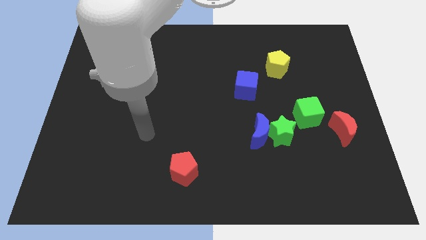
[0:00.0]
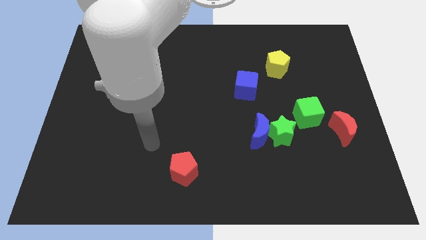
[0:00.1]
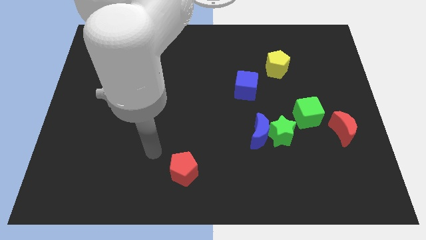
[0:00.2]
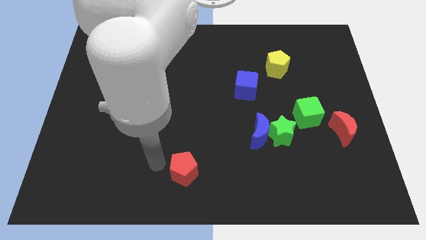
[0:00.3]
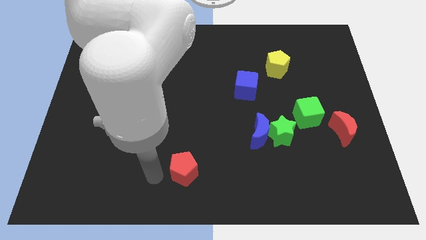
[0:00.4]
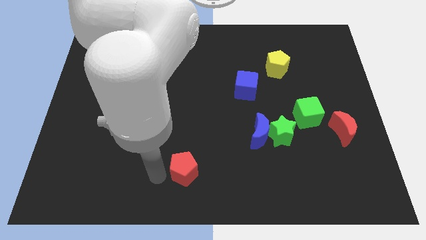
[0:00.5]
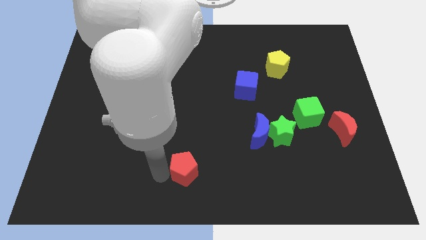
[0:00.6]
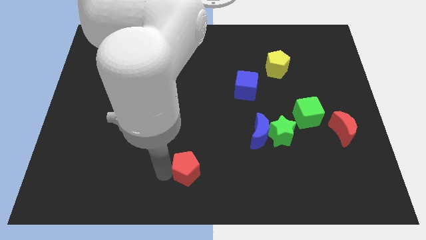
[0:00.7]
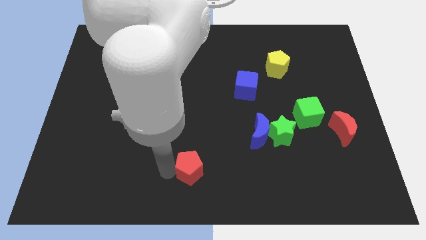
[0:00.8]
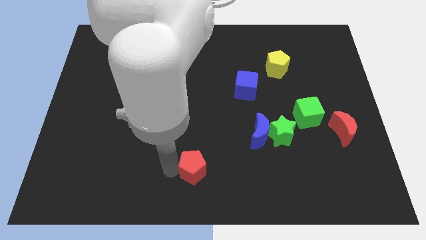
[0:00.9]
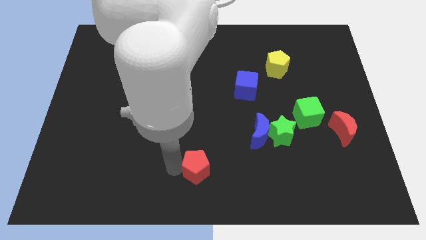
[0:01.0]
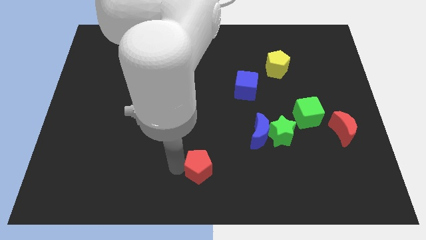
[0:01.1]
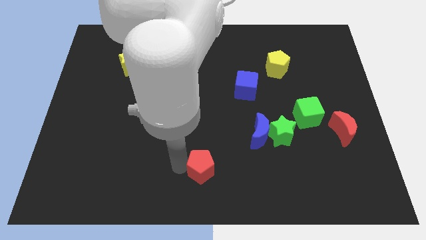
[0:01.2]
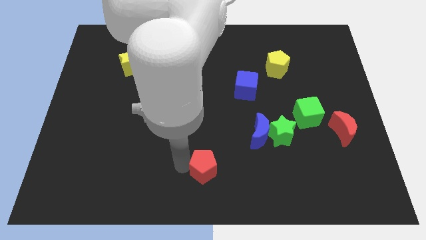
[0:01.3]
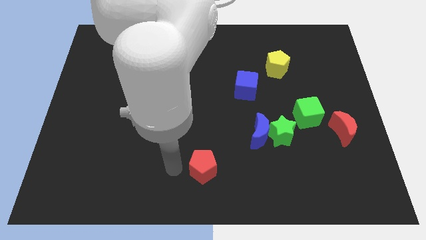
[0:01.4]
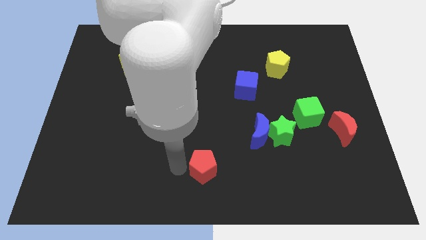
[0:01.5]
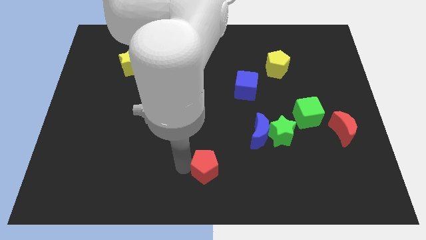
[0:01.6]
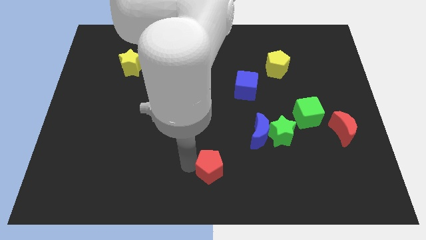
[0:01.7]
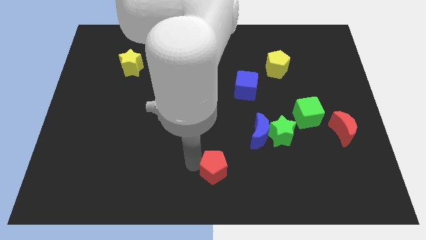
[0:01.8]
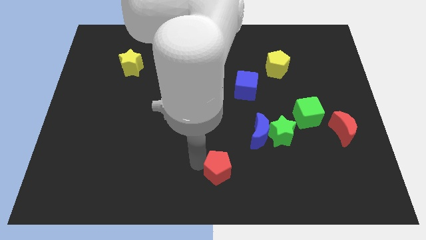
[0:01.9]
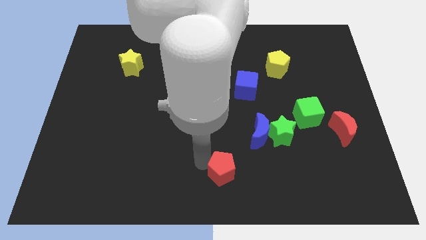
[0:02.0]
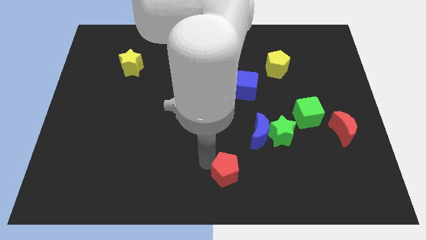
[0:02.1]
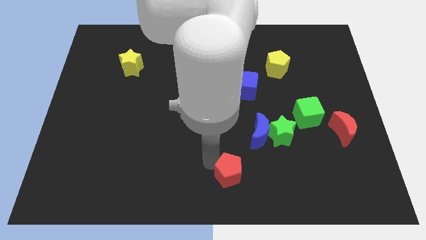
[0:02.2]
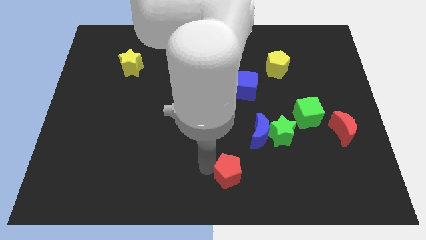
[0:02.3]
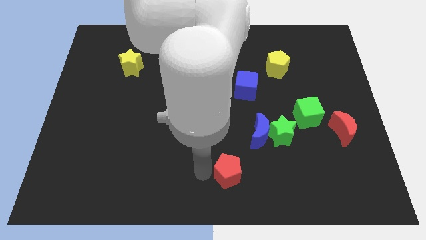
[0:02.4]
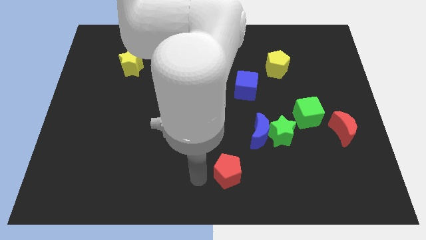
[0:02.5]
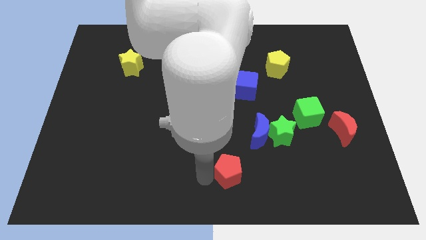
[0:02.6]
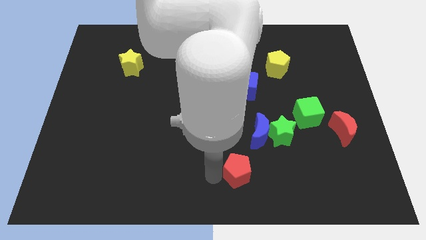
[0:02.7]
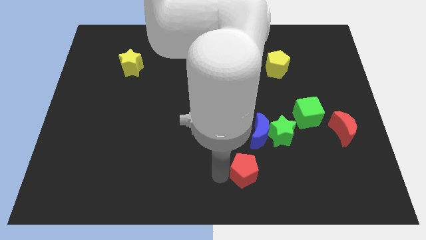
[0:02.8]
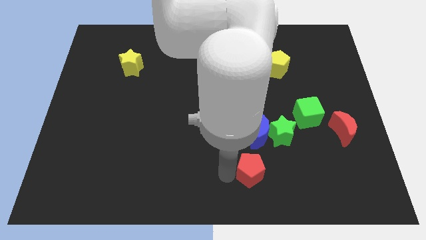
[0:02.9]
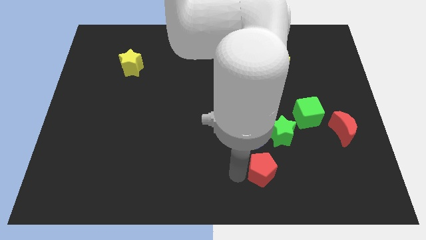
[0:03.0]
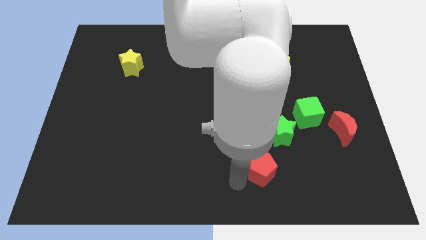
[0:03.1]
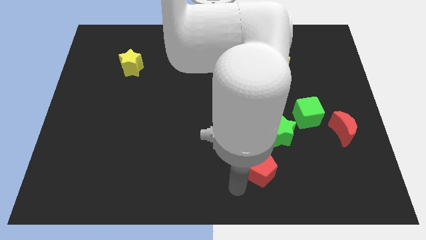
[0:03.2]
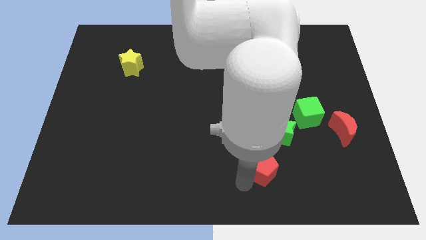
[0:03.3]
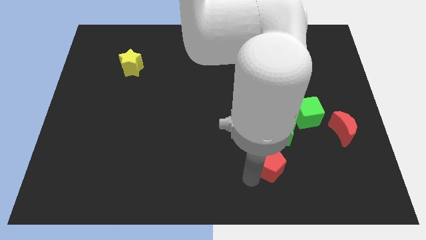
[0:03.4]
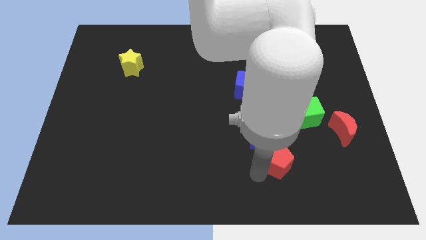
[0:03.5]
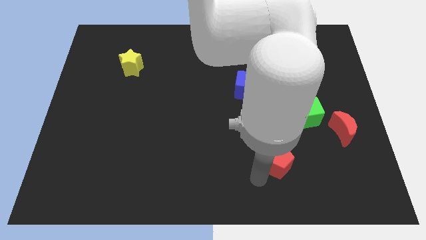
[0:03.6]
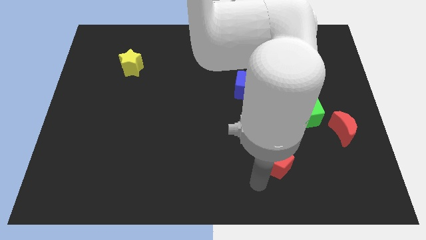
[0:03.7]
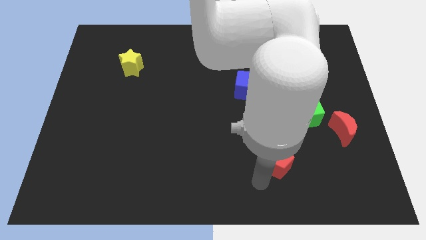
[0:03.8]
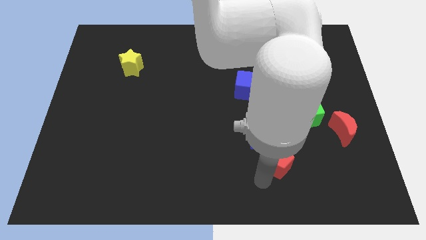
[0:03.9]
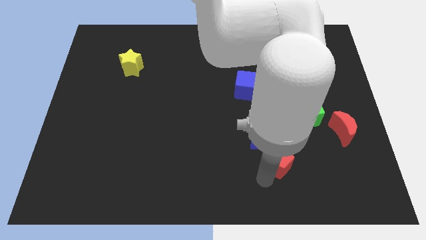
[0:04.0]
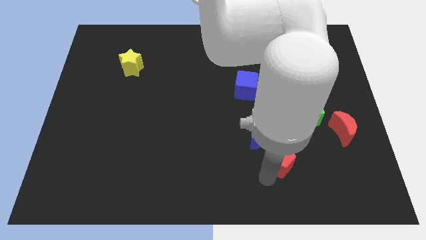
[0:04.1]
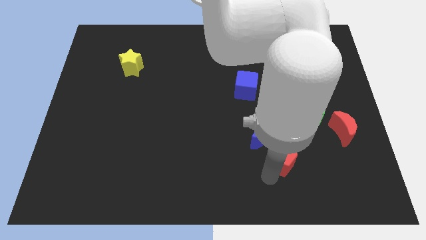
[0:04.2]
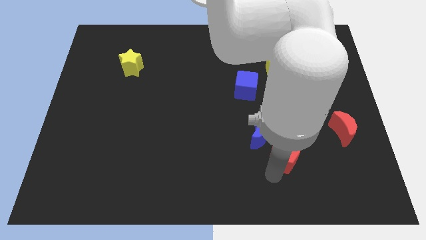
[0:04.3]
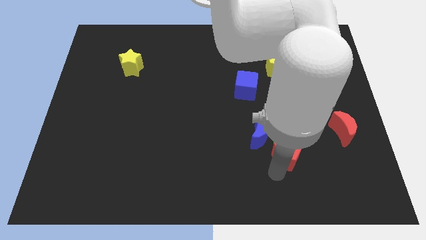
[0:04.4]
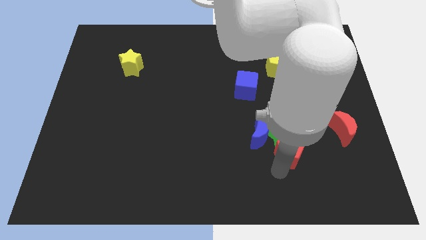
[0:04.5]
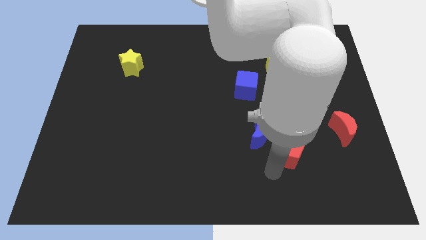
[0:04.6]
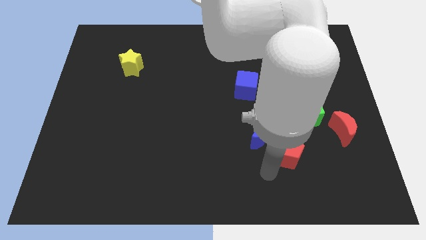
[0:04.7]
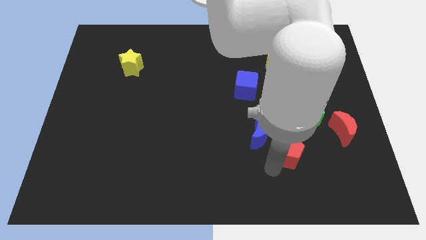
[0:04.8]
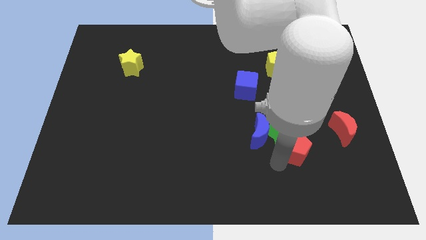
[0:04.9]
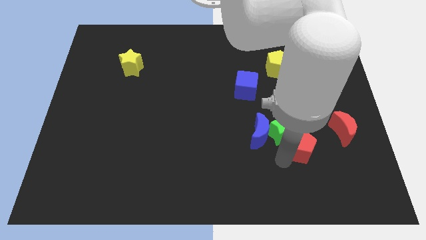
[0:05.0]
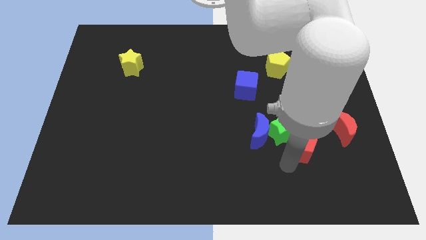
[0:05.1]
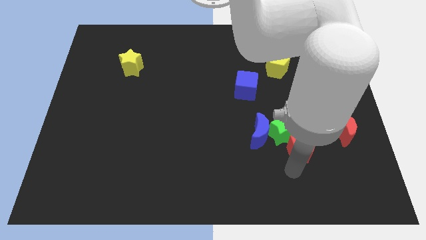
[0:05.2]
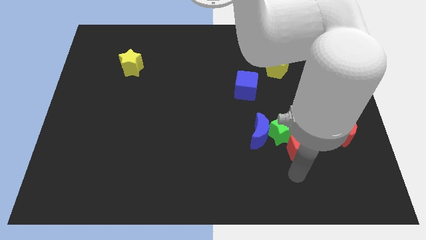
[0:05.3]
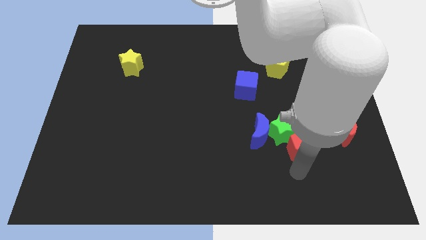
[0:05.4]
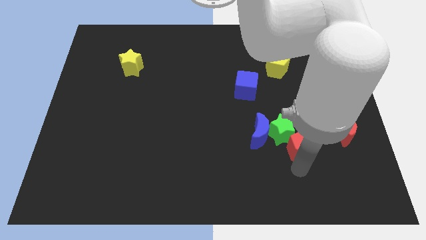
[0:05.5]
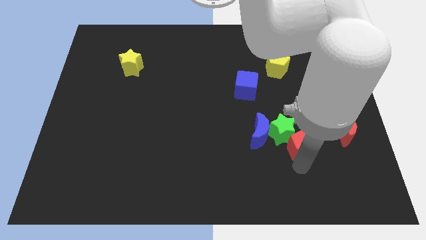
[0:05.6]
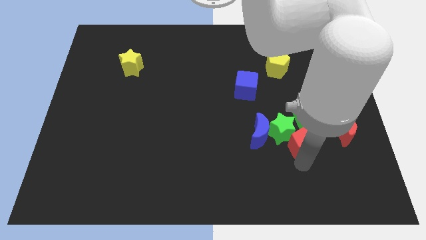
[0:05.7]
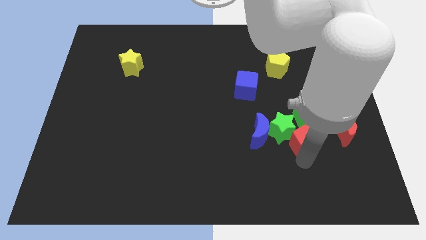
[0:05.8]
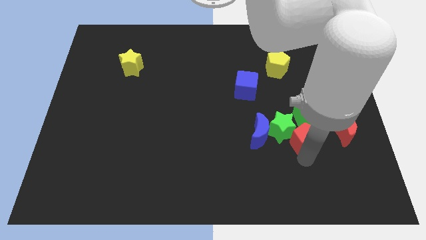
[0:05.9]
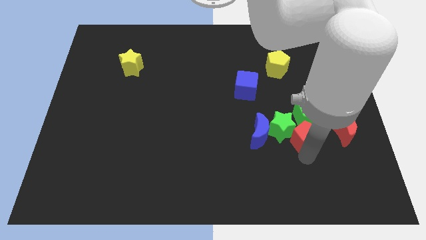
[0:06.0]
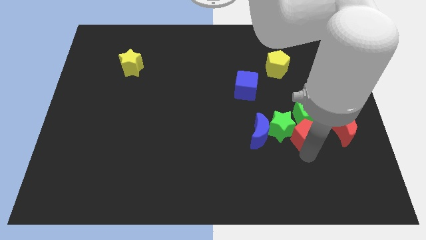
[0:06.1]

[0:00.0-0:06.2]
push the red pentagon close to the green cube

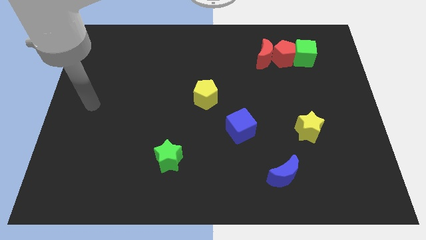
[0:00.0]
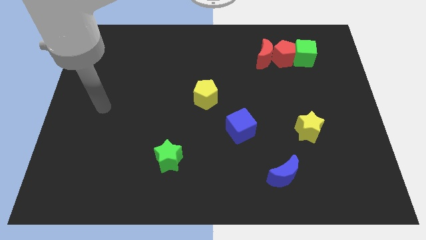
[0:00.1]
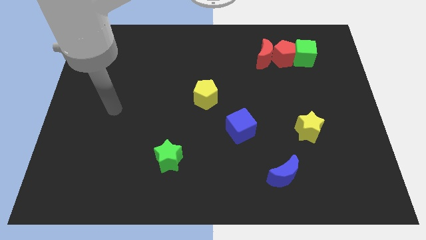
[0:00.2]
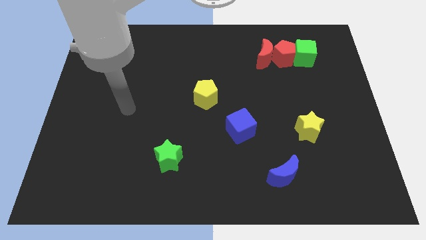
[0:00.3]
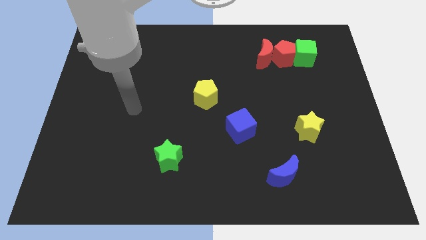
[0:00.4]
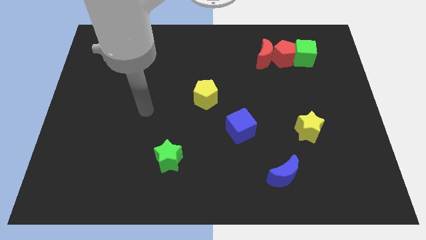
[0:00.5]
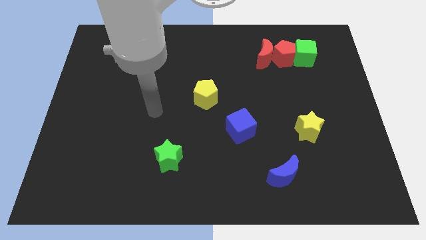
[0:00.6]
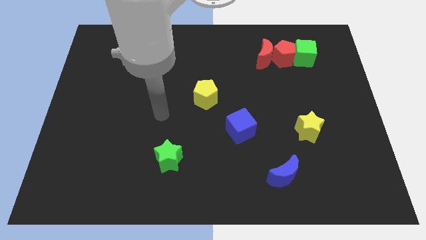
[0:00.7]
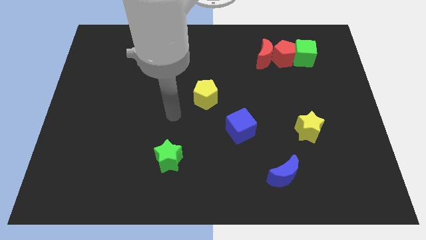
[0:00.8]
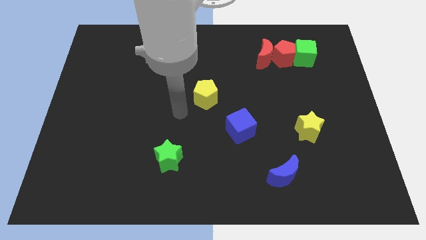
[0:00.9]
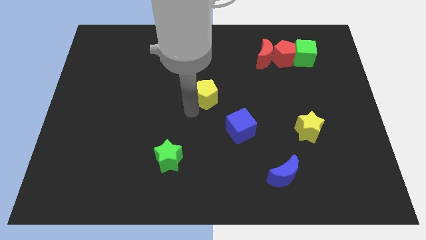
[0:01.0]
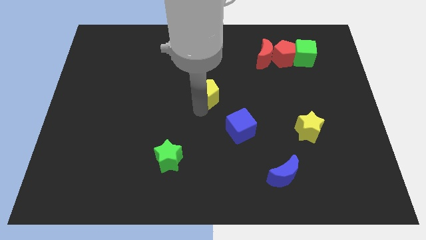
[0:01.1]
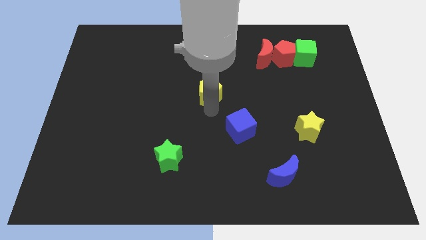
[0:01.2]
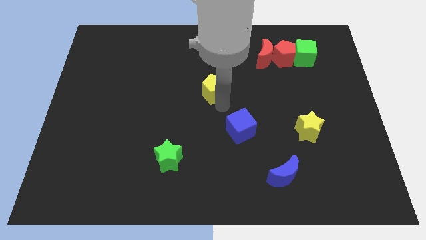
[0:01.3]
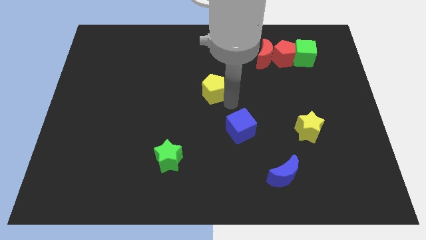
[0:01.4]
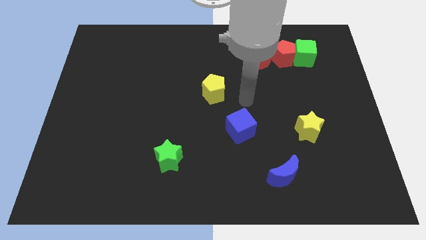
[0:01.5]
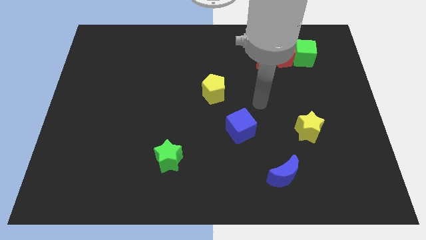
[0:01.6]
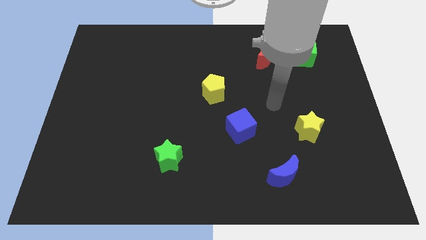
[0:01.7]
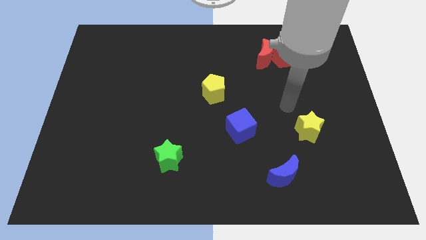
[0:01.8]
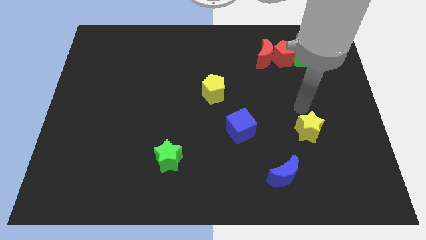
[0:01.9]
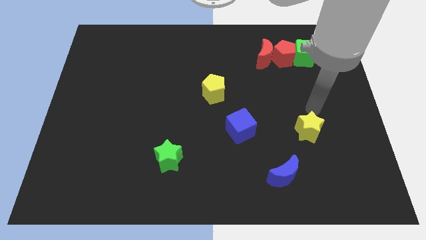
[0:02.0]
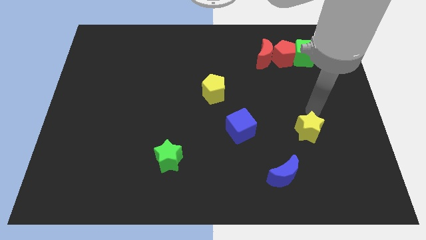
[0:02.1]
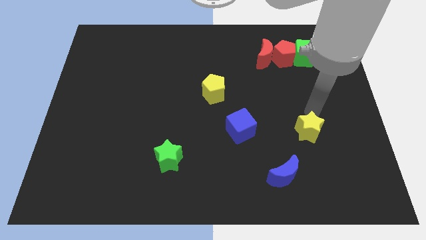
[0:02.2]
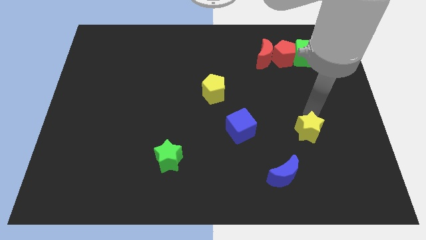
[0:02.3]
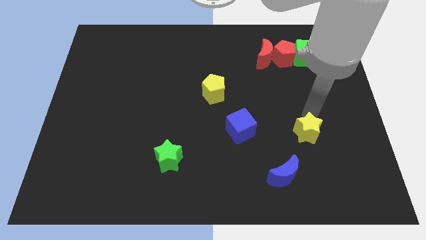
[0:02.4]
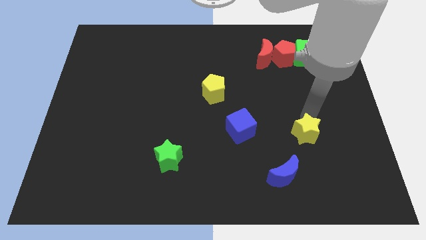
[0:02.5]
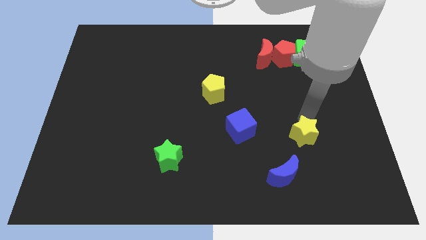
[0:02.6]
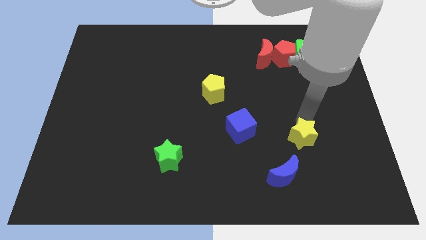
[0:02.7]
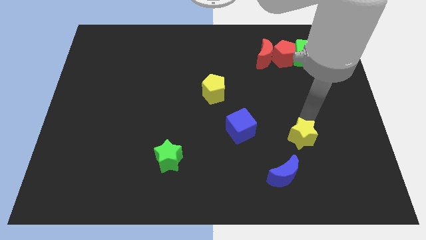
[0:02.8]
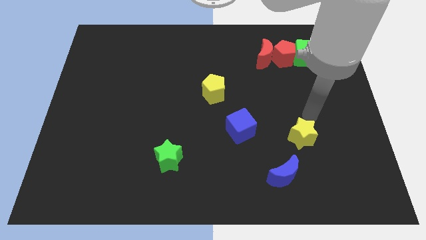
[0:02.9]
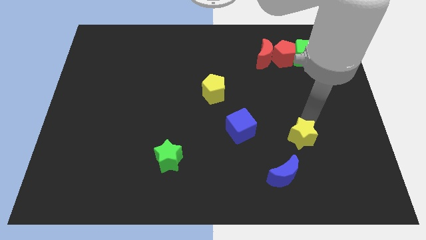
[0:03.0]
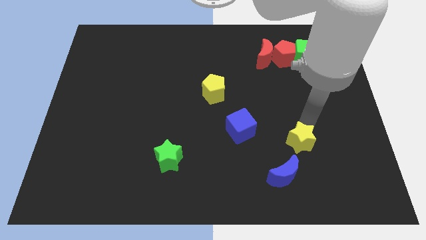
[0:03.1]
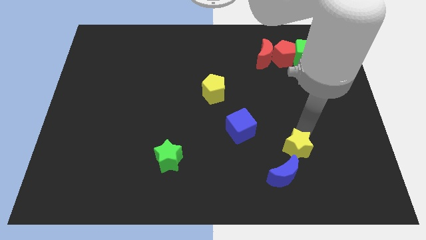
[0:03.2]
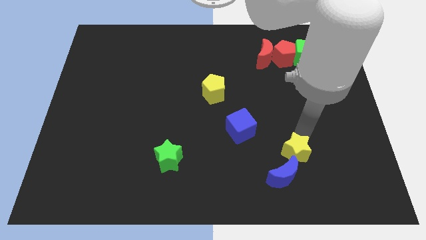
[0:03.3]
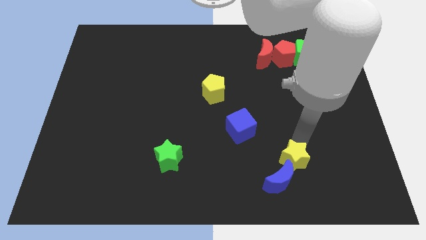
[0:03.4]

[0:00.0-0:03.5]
move the yellow star next to the blue moon
